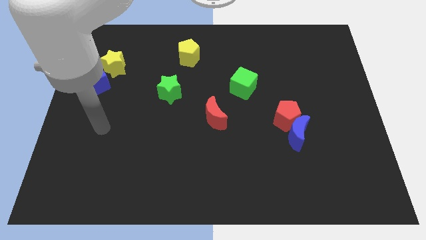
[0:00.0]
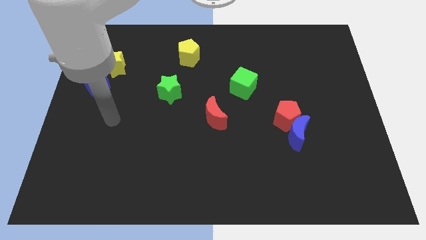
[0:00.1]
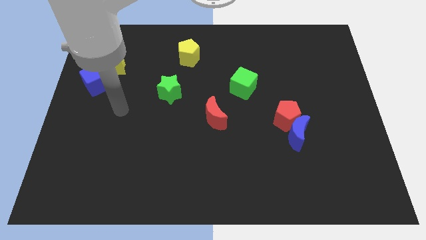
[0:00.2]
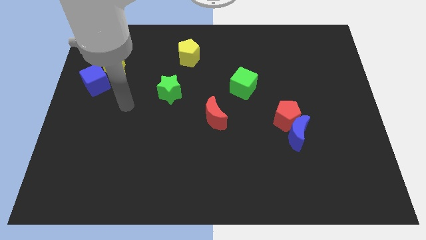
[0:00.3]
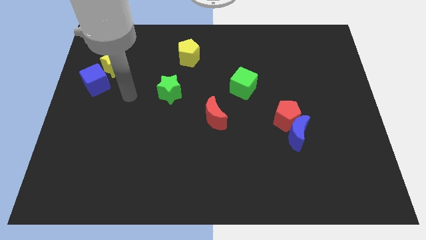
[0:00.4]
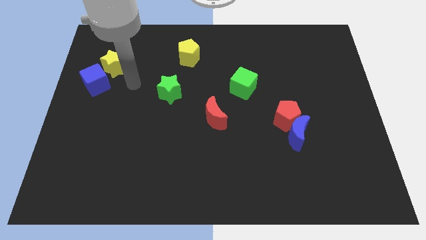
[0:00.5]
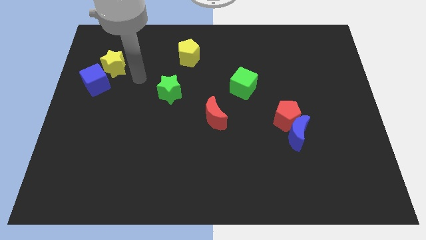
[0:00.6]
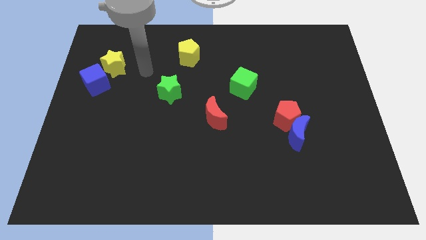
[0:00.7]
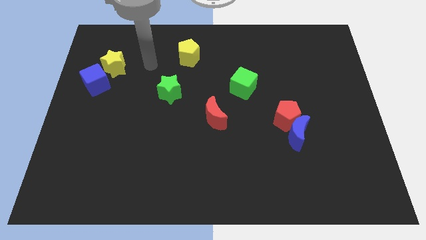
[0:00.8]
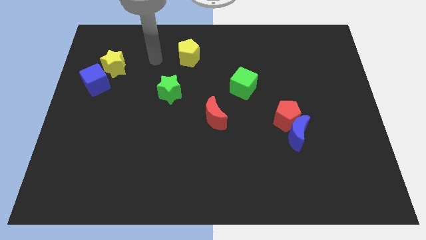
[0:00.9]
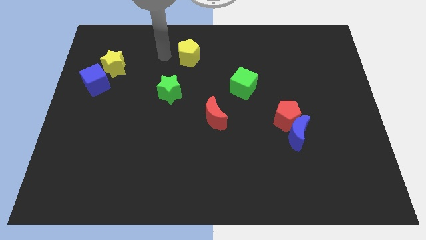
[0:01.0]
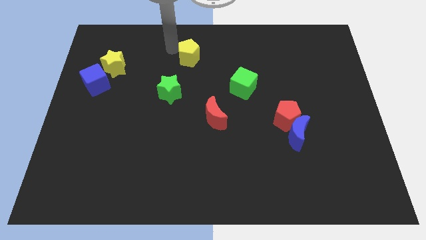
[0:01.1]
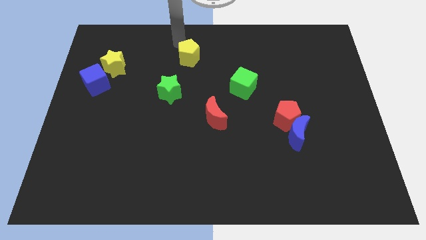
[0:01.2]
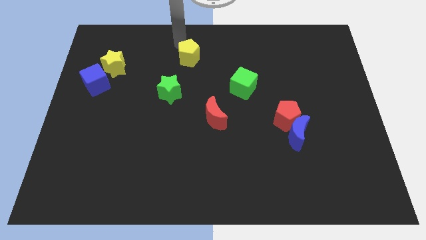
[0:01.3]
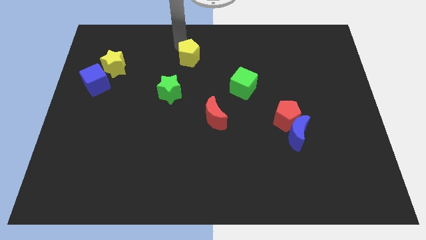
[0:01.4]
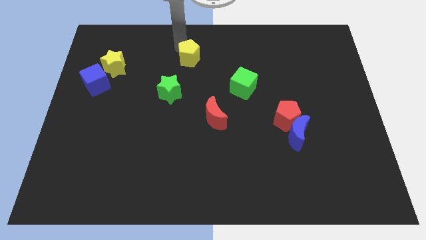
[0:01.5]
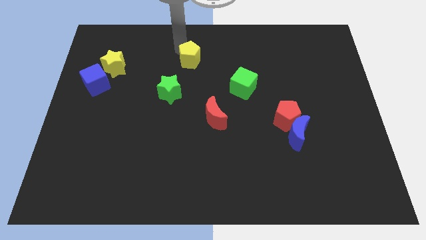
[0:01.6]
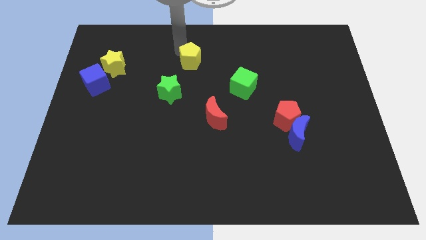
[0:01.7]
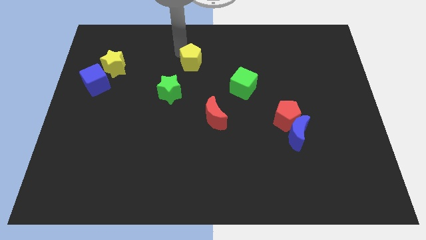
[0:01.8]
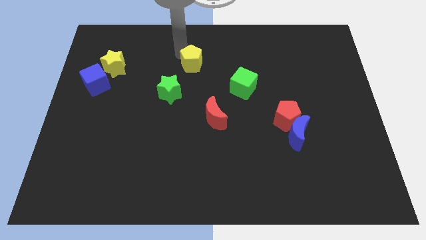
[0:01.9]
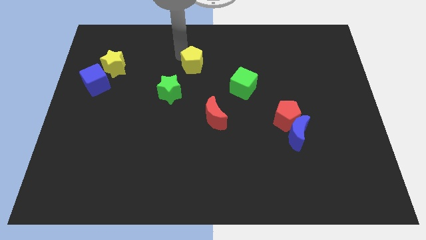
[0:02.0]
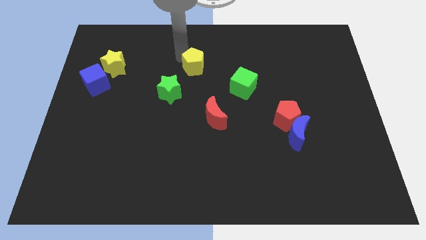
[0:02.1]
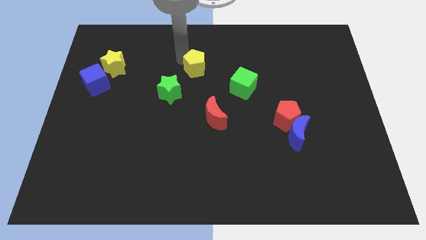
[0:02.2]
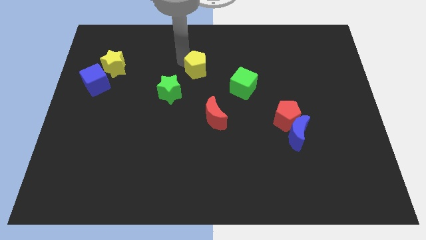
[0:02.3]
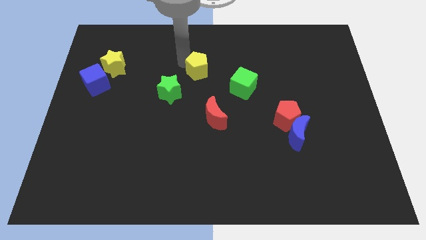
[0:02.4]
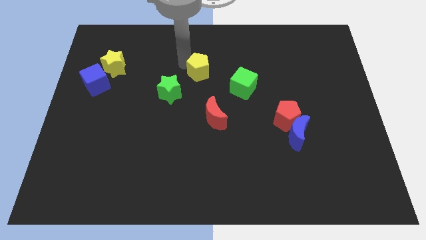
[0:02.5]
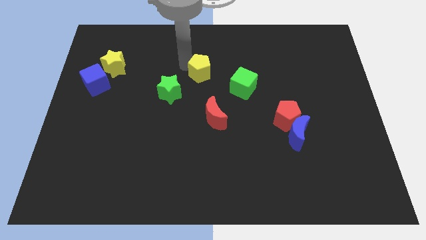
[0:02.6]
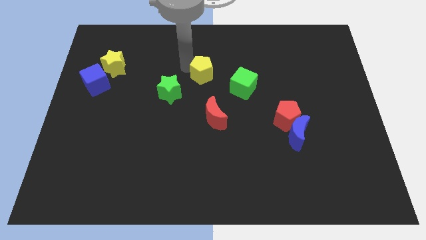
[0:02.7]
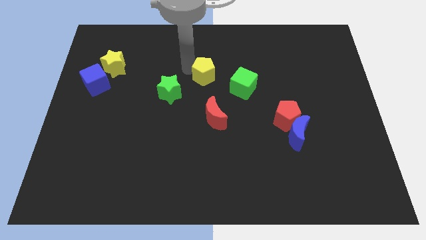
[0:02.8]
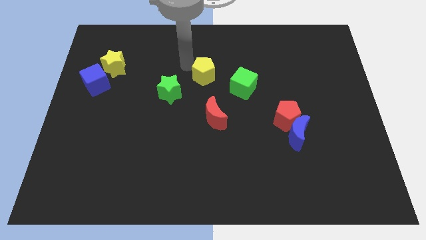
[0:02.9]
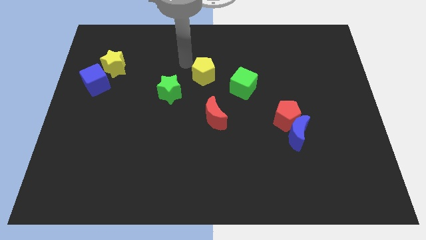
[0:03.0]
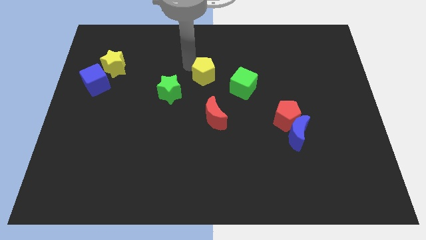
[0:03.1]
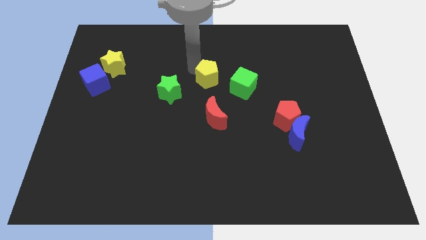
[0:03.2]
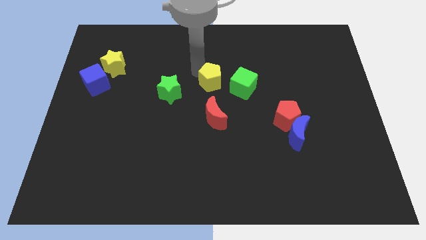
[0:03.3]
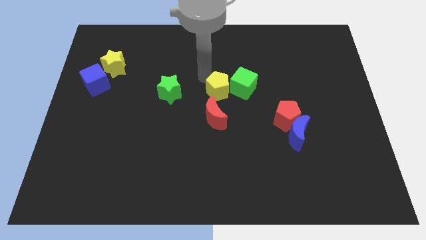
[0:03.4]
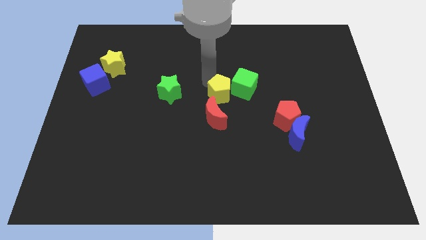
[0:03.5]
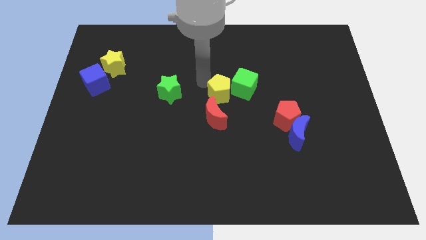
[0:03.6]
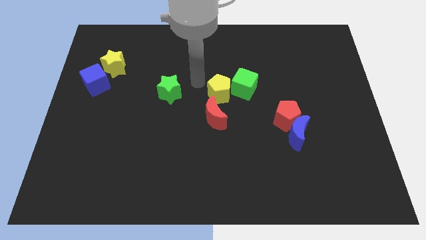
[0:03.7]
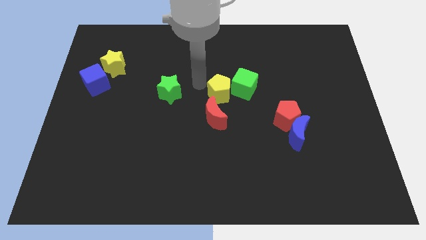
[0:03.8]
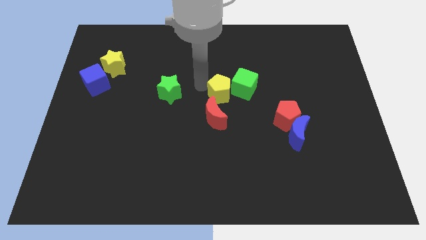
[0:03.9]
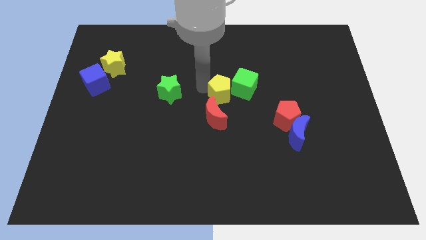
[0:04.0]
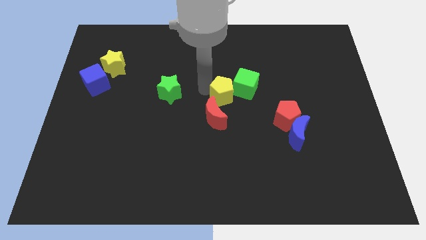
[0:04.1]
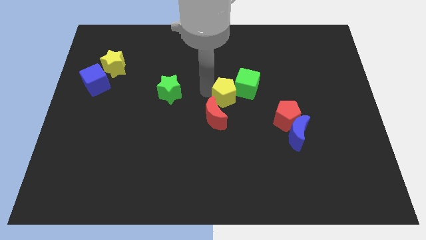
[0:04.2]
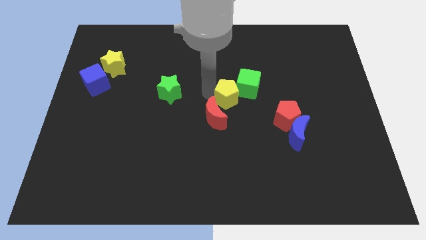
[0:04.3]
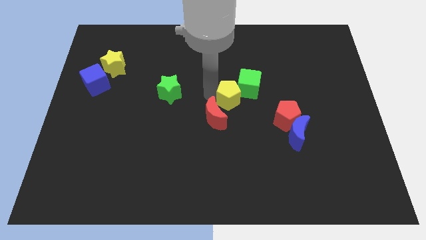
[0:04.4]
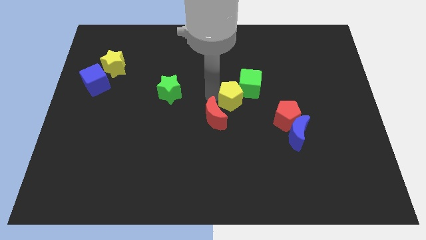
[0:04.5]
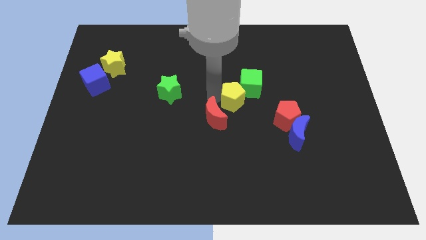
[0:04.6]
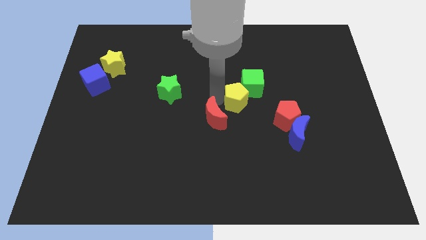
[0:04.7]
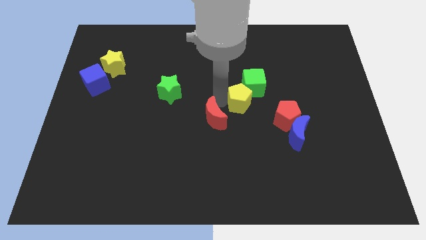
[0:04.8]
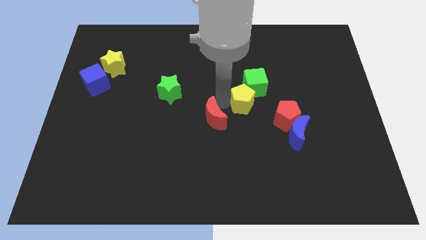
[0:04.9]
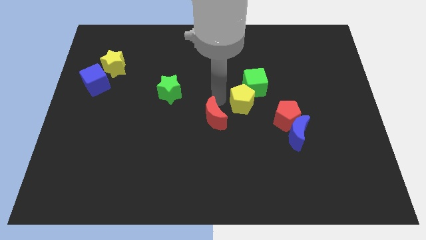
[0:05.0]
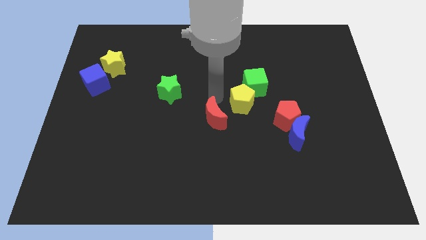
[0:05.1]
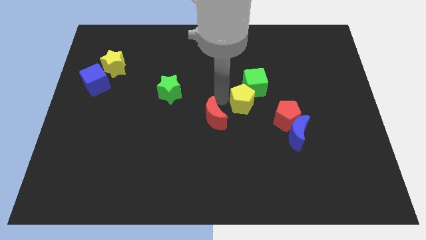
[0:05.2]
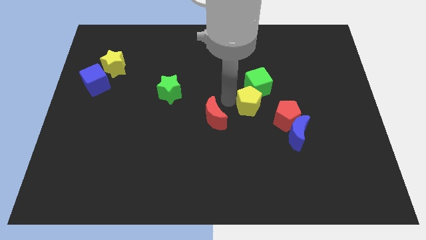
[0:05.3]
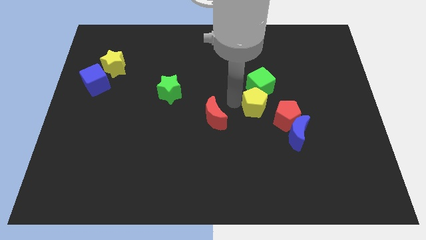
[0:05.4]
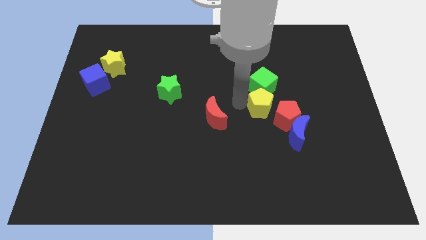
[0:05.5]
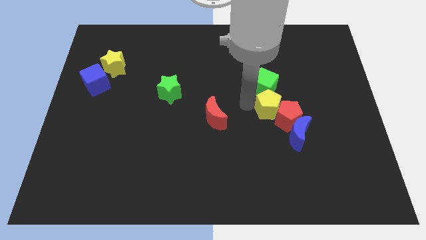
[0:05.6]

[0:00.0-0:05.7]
push the yellow pentagon next to the red pentagon

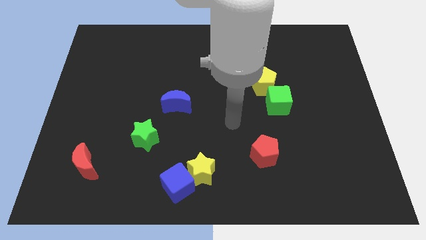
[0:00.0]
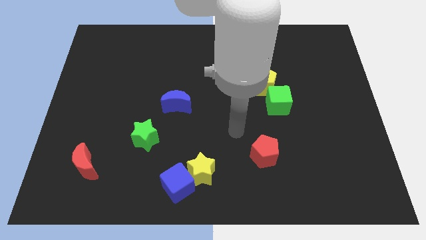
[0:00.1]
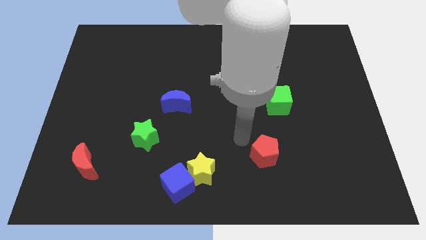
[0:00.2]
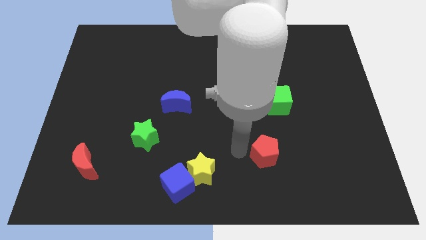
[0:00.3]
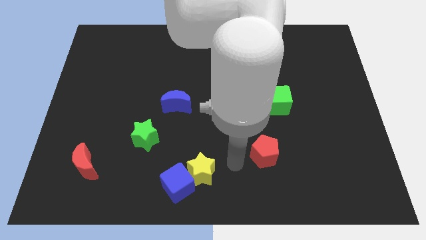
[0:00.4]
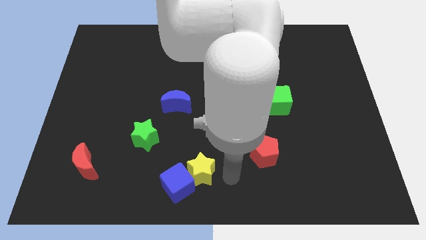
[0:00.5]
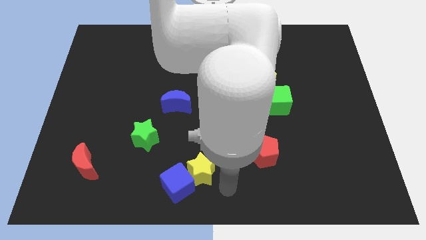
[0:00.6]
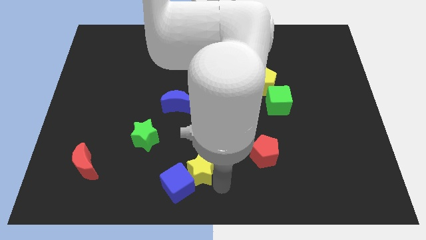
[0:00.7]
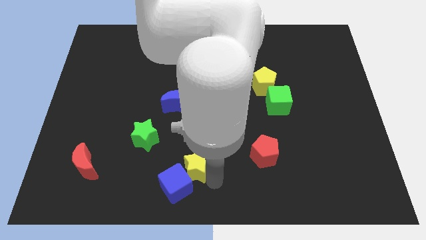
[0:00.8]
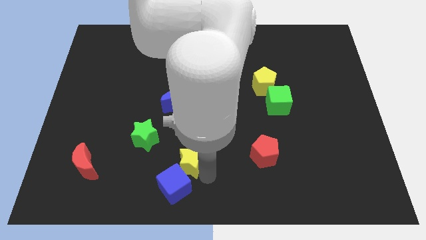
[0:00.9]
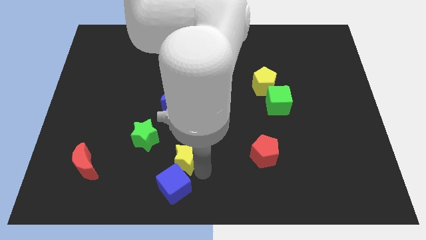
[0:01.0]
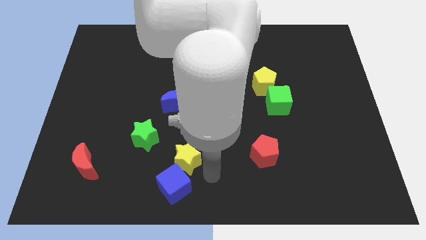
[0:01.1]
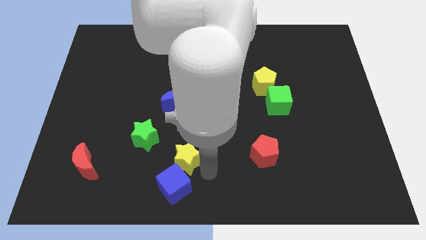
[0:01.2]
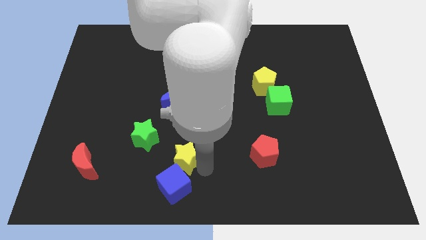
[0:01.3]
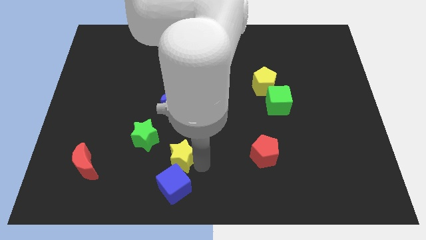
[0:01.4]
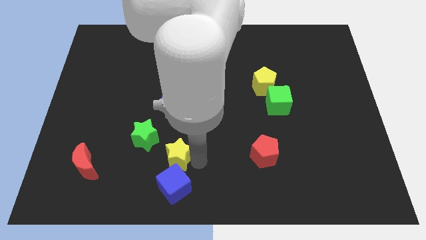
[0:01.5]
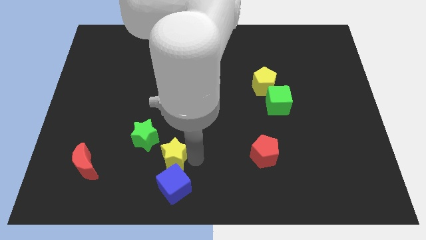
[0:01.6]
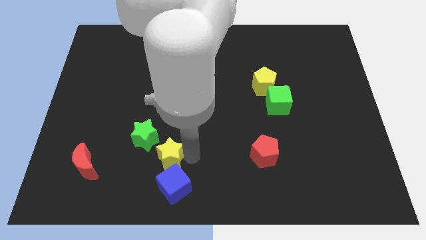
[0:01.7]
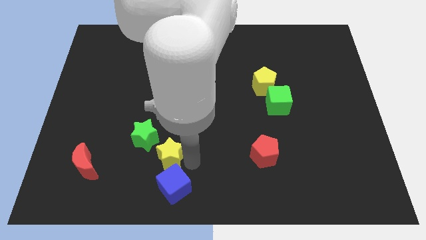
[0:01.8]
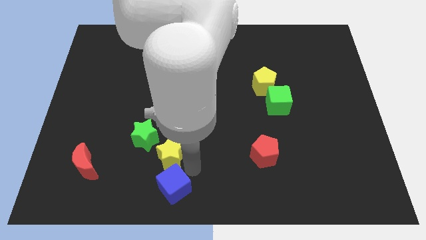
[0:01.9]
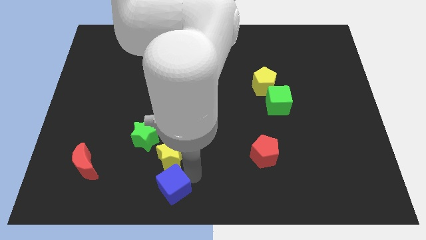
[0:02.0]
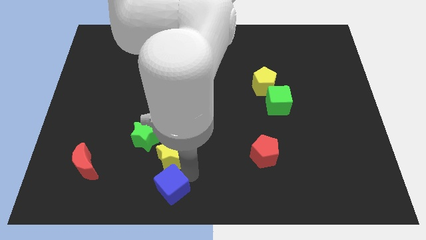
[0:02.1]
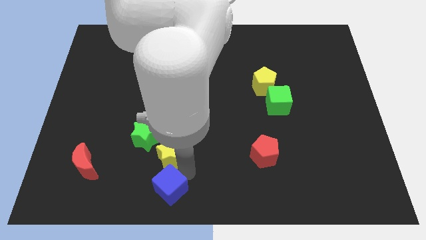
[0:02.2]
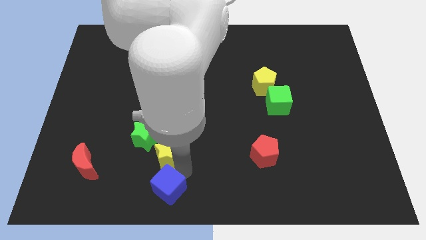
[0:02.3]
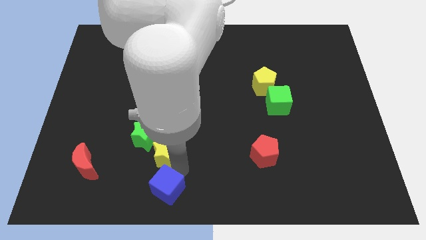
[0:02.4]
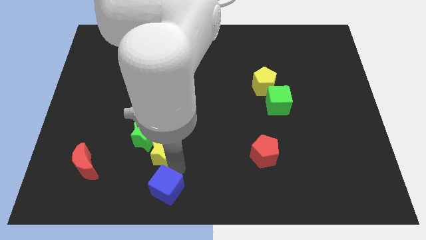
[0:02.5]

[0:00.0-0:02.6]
move the yellow star close to the green star
